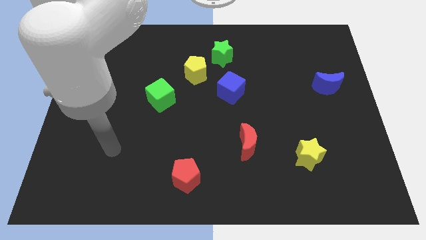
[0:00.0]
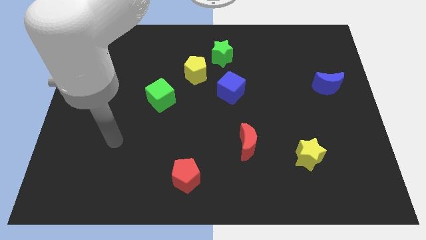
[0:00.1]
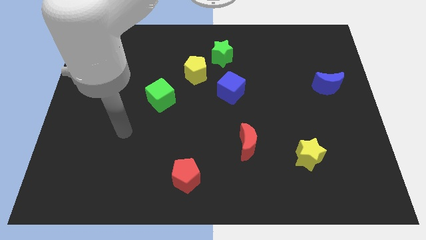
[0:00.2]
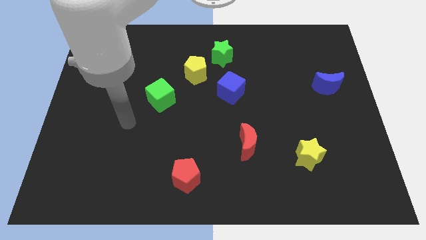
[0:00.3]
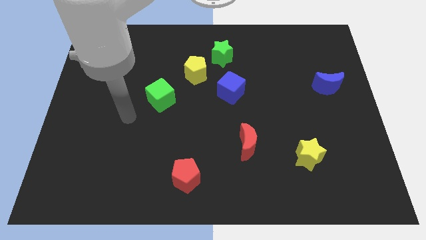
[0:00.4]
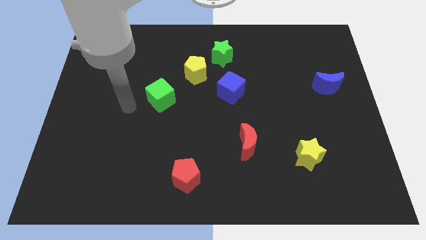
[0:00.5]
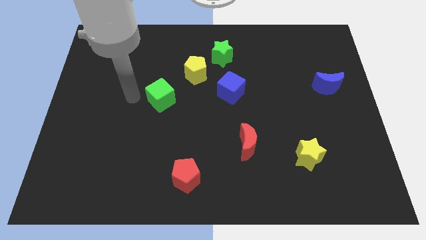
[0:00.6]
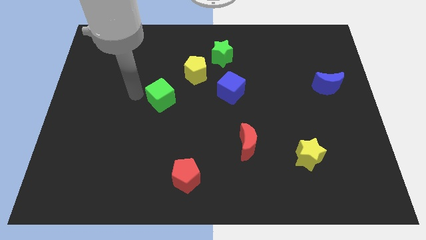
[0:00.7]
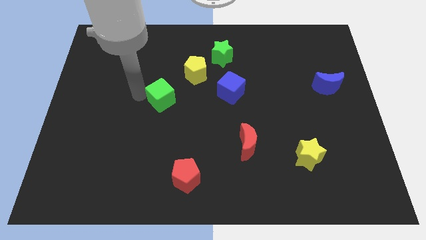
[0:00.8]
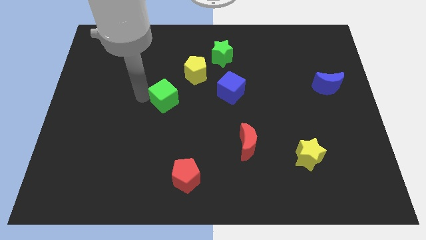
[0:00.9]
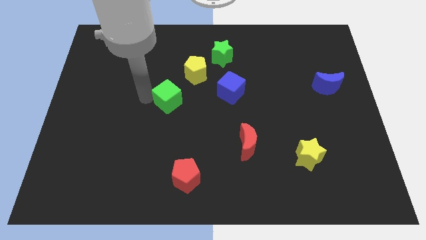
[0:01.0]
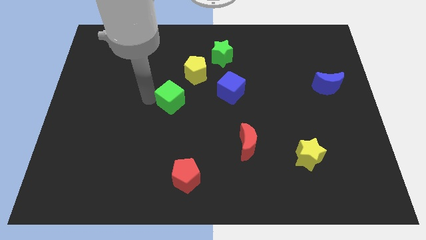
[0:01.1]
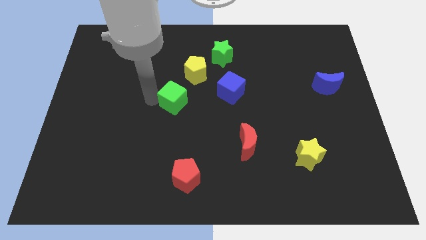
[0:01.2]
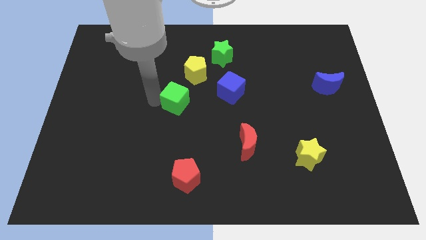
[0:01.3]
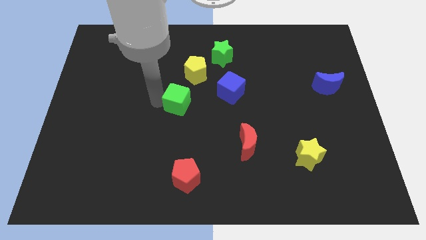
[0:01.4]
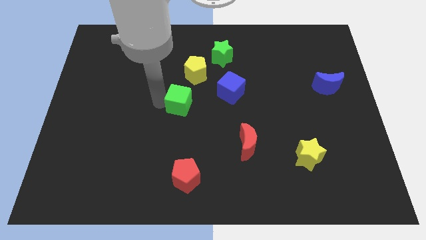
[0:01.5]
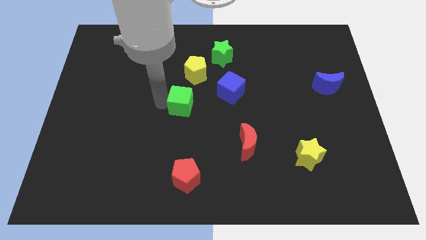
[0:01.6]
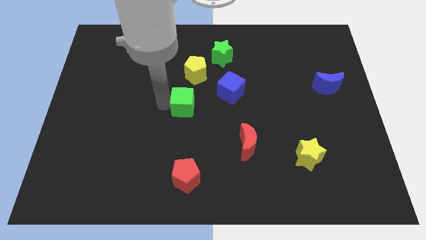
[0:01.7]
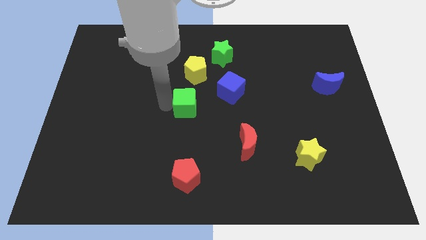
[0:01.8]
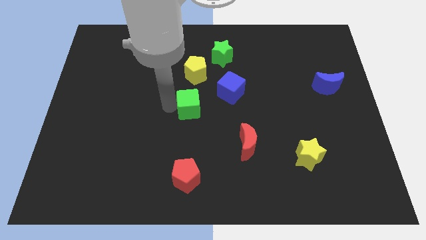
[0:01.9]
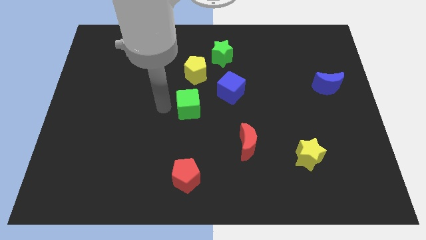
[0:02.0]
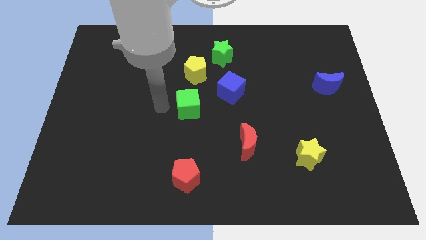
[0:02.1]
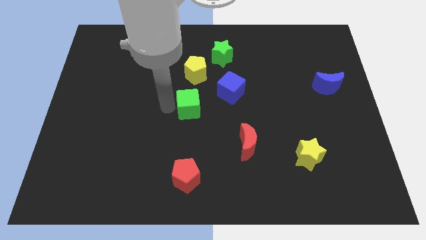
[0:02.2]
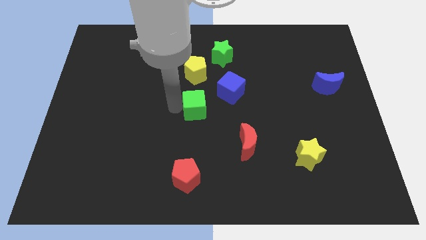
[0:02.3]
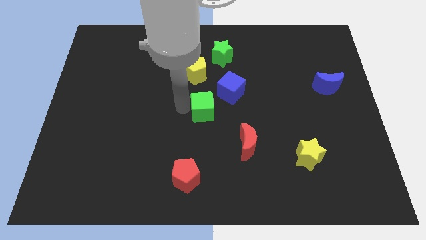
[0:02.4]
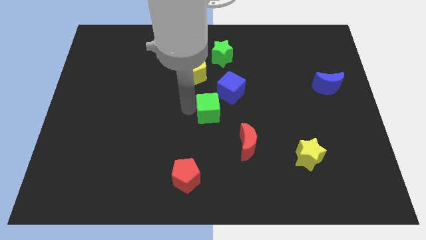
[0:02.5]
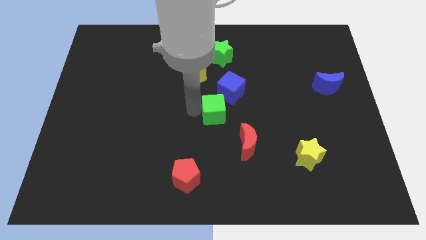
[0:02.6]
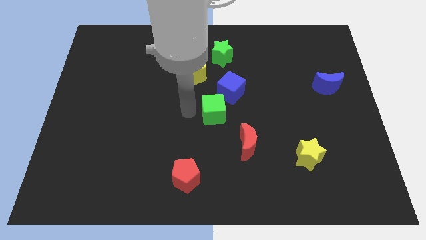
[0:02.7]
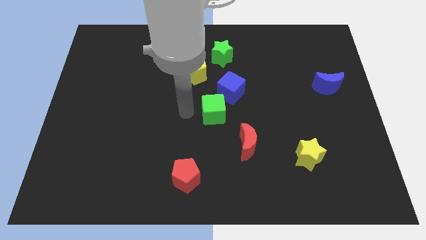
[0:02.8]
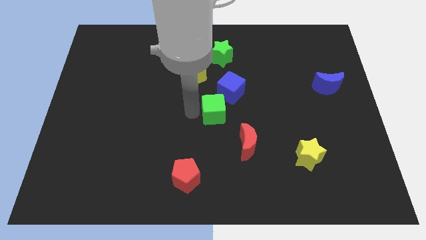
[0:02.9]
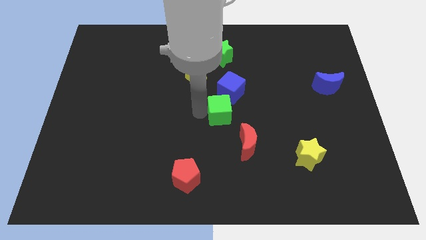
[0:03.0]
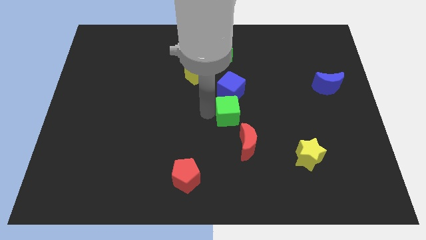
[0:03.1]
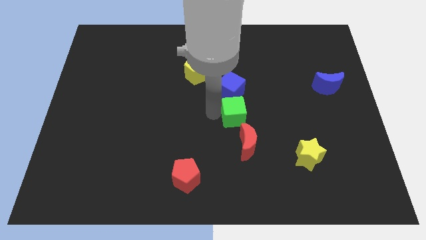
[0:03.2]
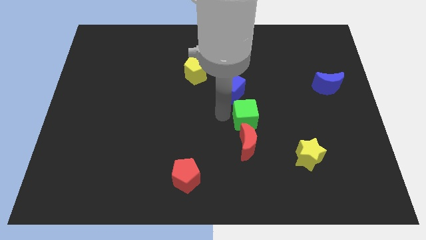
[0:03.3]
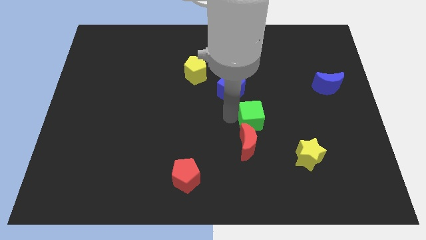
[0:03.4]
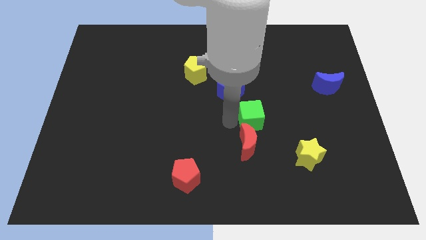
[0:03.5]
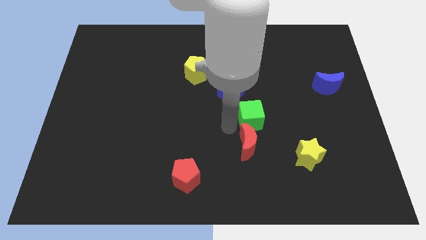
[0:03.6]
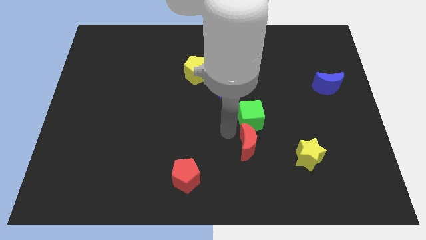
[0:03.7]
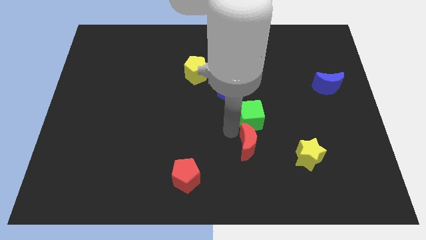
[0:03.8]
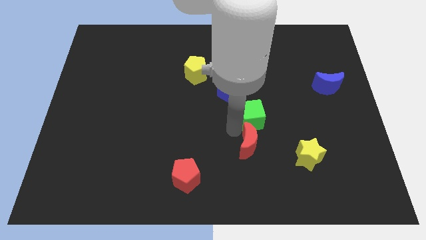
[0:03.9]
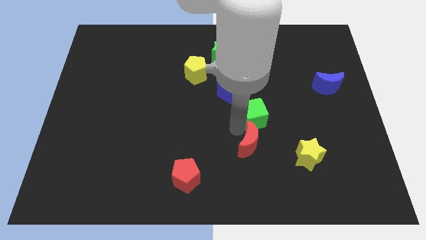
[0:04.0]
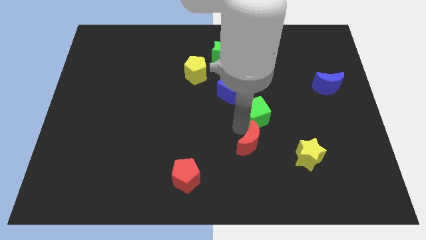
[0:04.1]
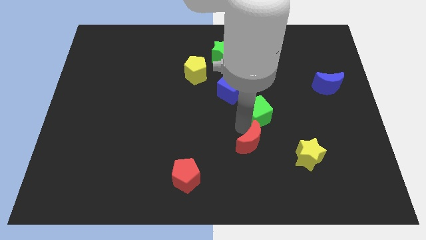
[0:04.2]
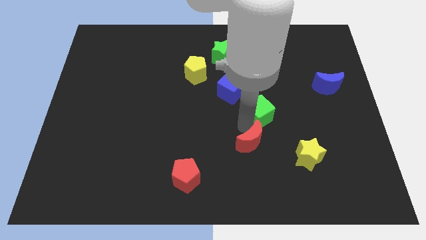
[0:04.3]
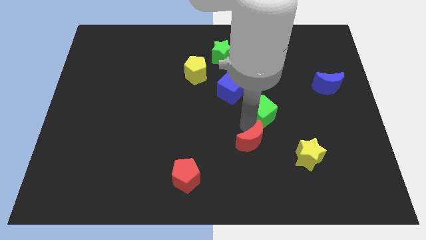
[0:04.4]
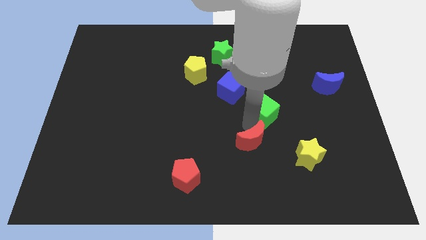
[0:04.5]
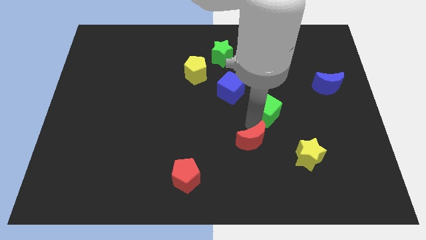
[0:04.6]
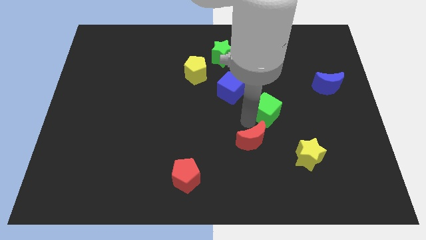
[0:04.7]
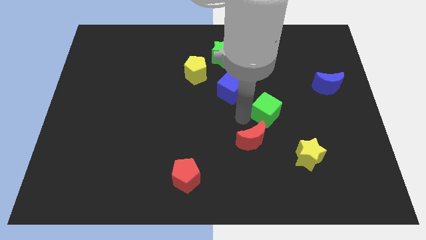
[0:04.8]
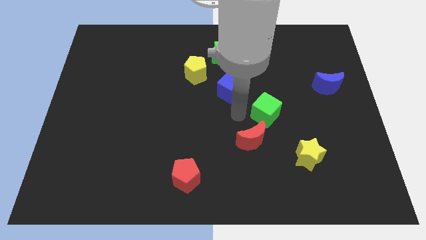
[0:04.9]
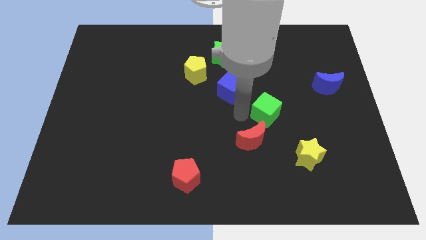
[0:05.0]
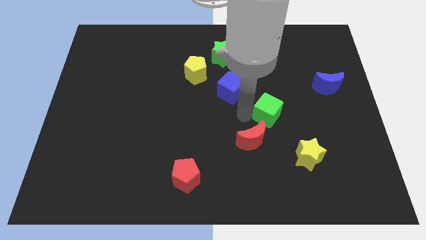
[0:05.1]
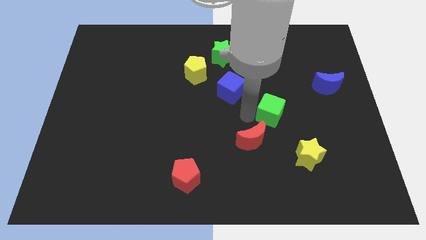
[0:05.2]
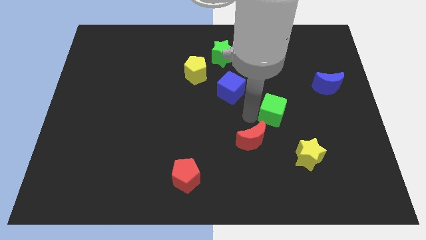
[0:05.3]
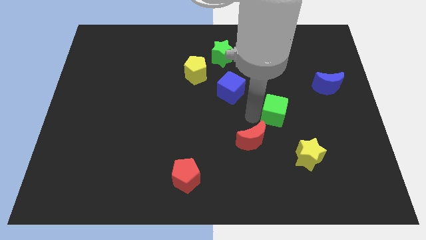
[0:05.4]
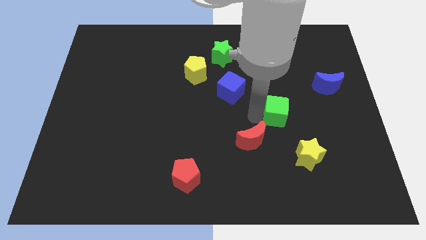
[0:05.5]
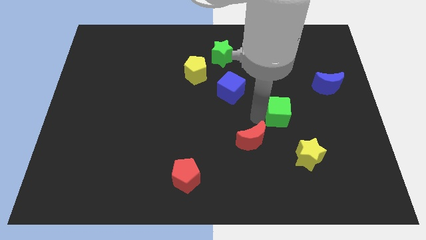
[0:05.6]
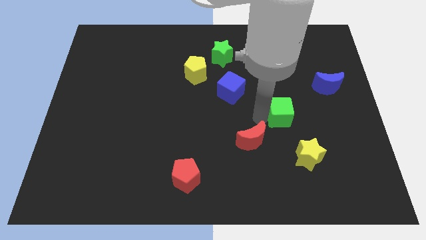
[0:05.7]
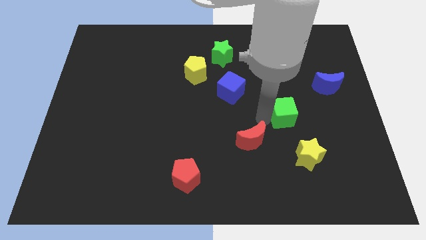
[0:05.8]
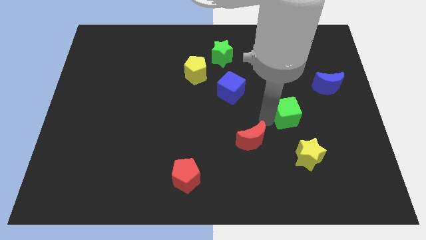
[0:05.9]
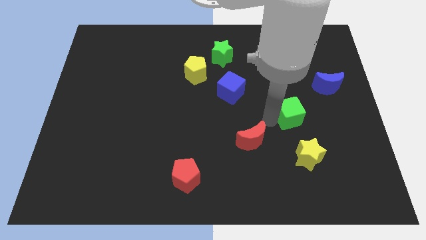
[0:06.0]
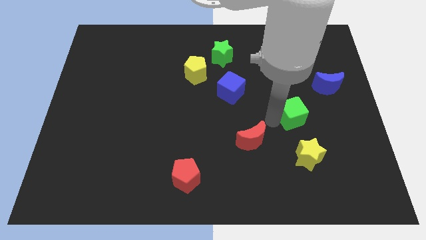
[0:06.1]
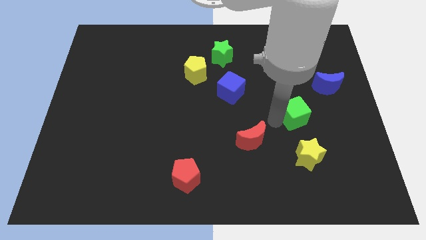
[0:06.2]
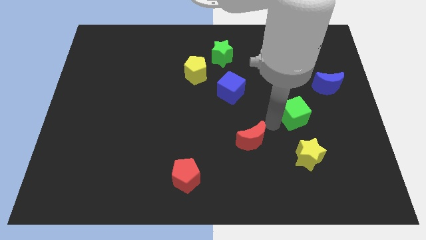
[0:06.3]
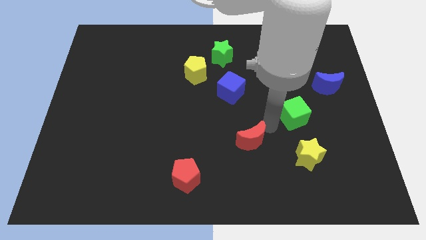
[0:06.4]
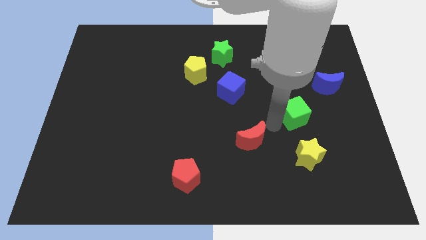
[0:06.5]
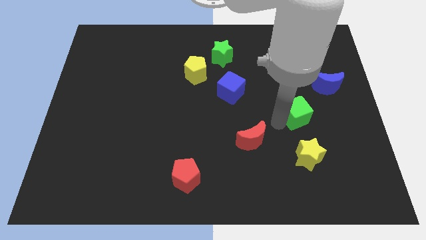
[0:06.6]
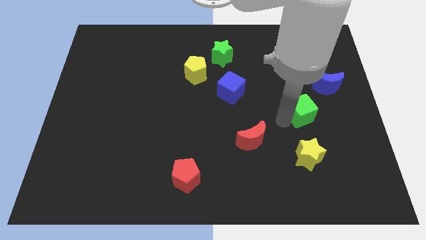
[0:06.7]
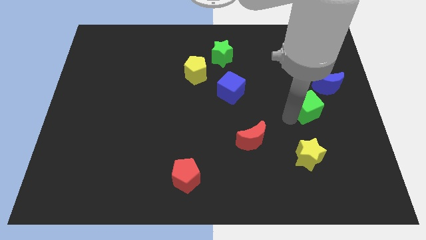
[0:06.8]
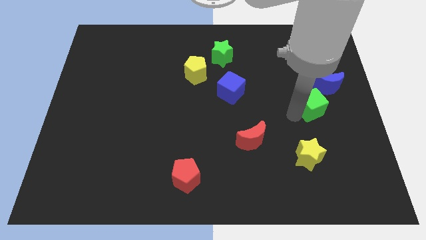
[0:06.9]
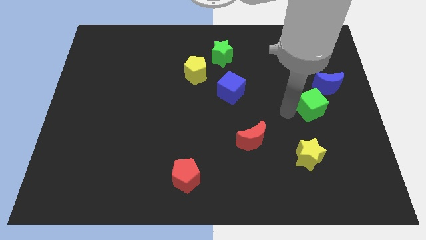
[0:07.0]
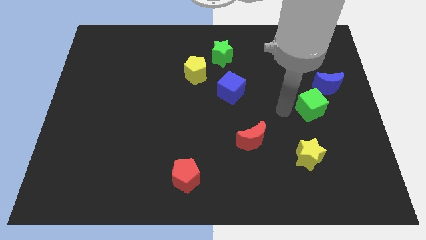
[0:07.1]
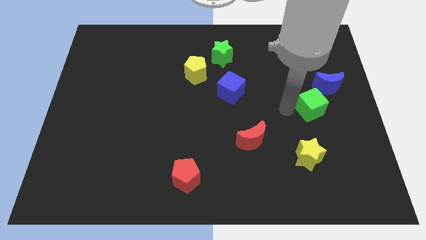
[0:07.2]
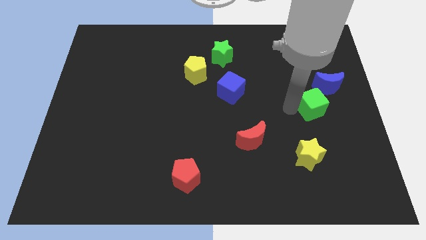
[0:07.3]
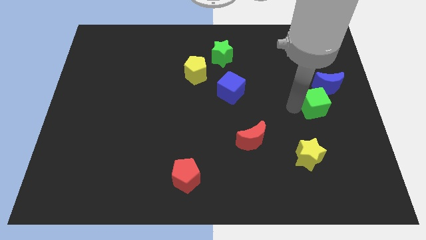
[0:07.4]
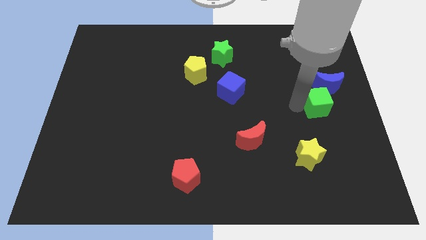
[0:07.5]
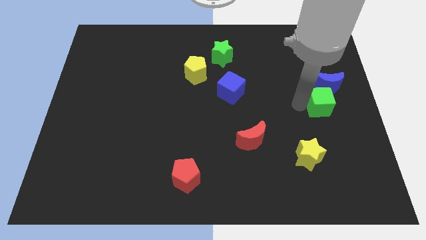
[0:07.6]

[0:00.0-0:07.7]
put the green cube to the center right
